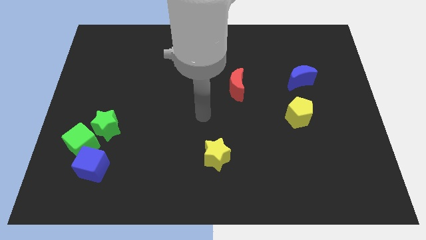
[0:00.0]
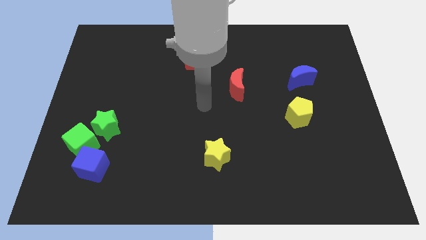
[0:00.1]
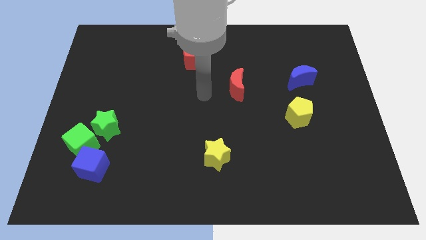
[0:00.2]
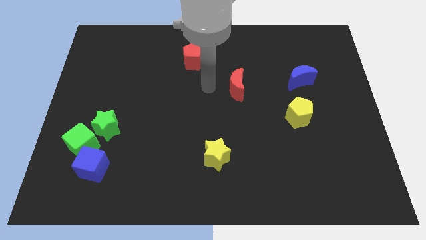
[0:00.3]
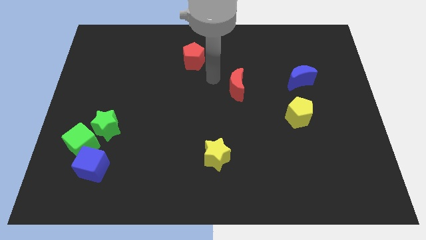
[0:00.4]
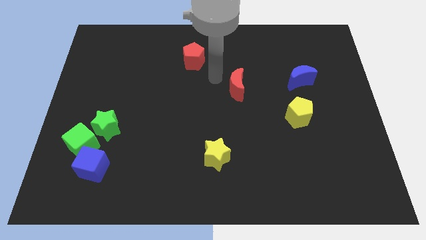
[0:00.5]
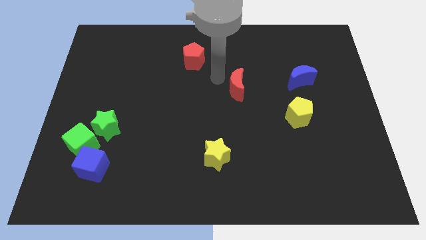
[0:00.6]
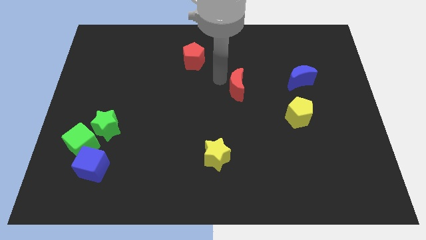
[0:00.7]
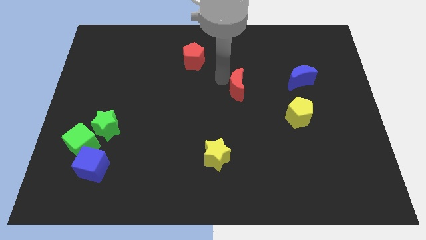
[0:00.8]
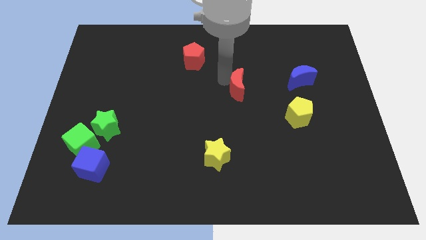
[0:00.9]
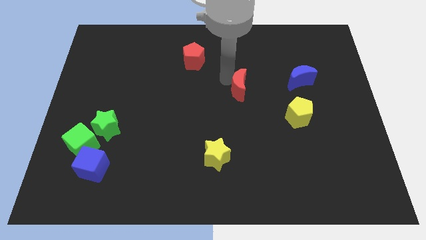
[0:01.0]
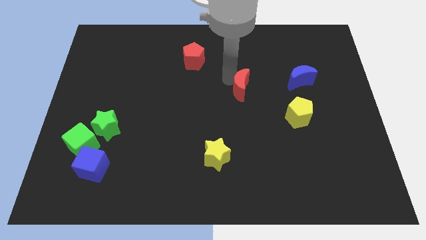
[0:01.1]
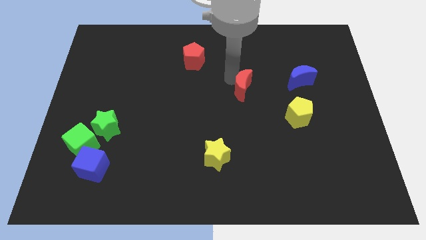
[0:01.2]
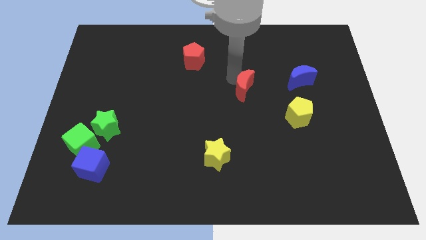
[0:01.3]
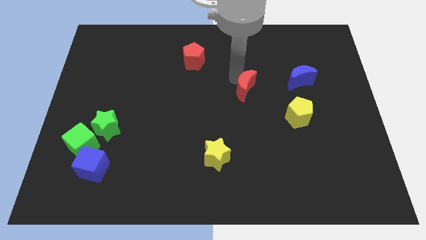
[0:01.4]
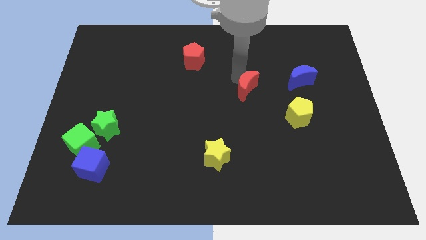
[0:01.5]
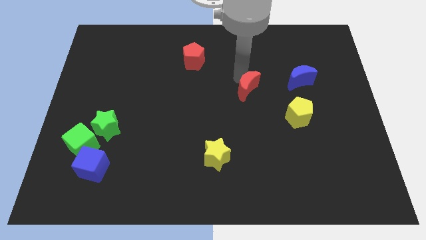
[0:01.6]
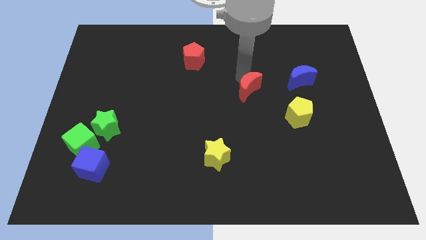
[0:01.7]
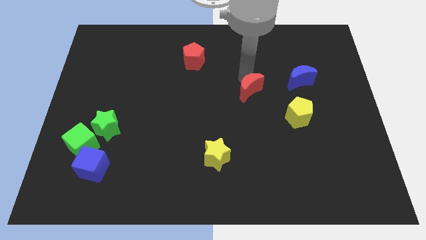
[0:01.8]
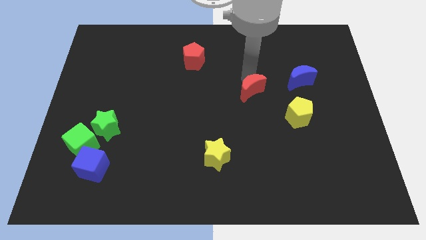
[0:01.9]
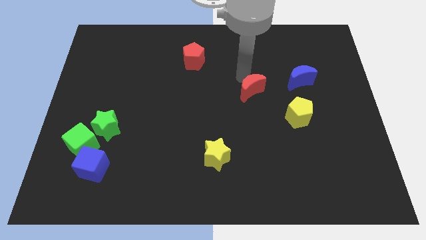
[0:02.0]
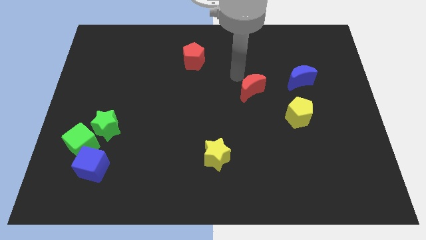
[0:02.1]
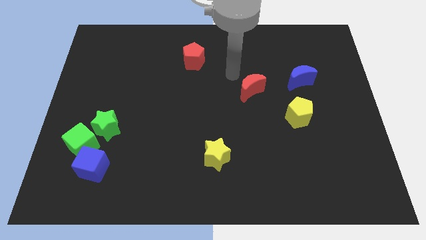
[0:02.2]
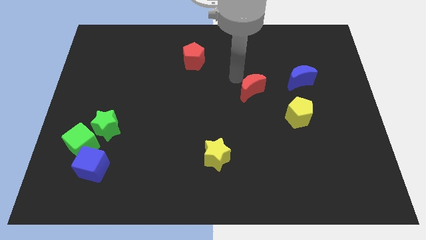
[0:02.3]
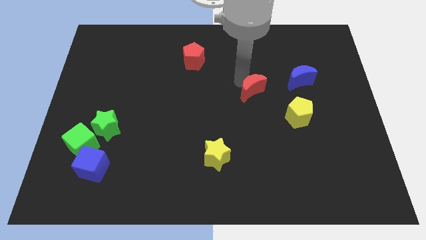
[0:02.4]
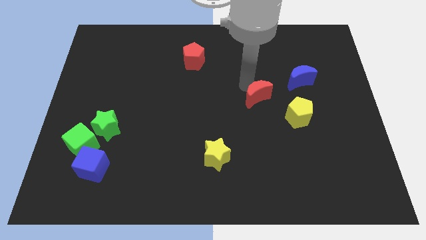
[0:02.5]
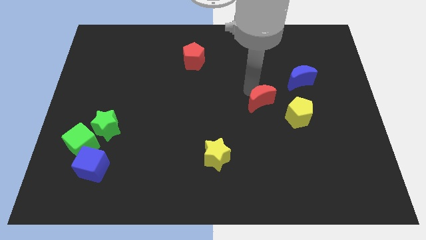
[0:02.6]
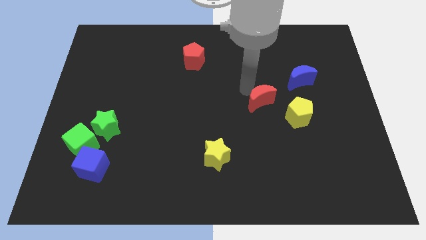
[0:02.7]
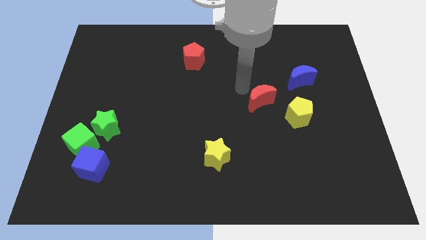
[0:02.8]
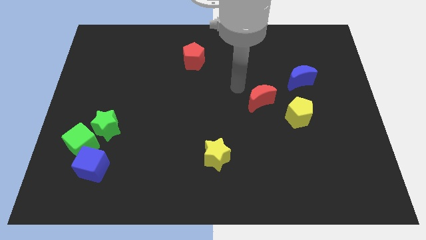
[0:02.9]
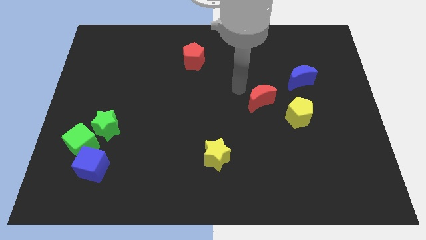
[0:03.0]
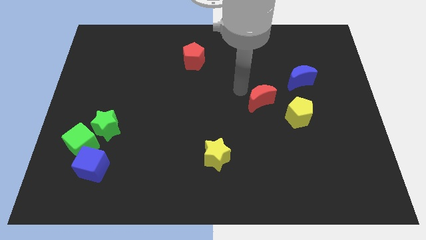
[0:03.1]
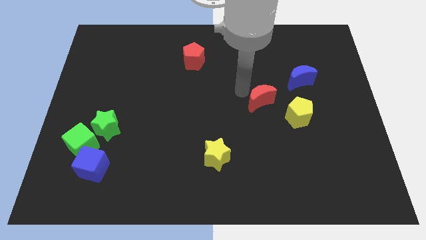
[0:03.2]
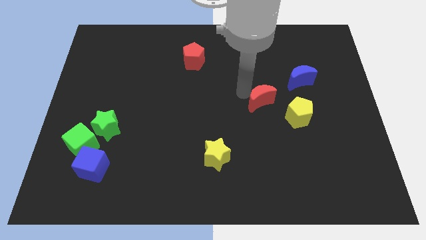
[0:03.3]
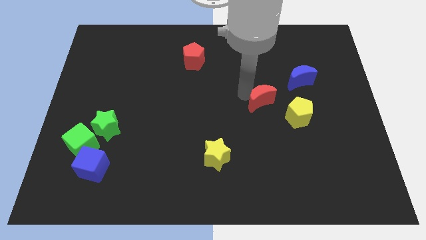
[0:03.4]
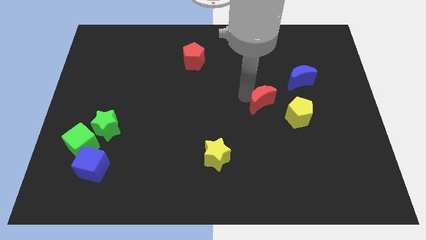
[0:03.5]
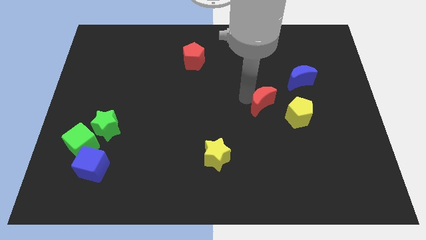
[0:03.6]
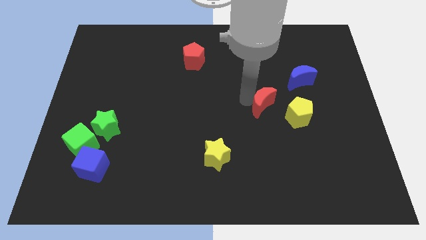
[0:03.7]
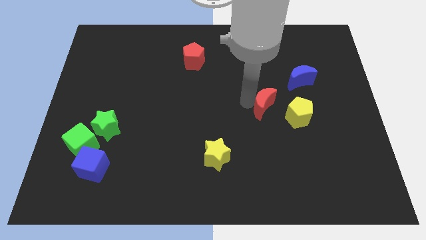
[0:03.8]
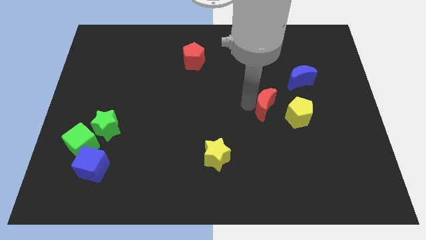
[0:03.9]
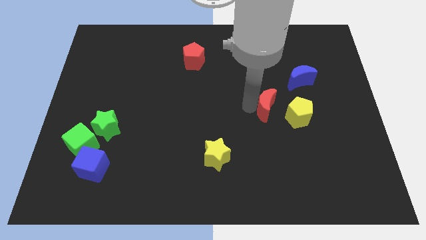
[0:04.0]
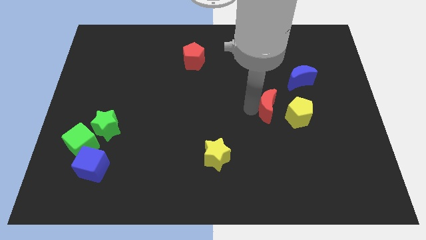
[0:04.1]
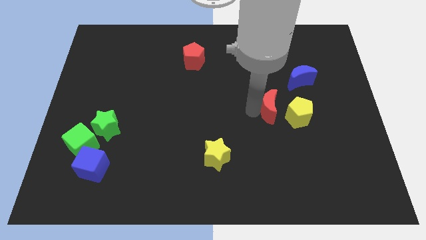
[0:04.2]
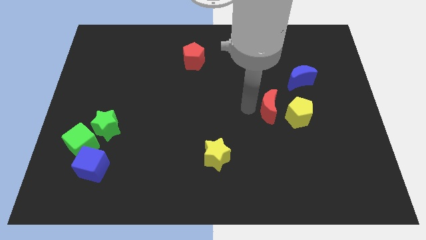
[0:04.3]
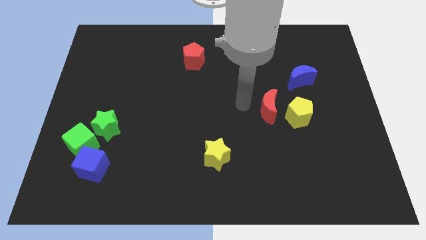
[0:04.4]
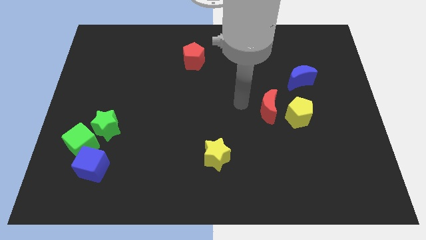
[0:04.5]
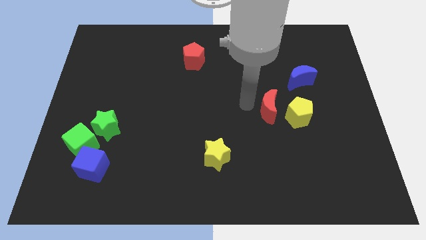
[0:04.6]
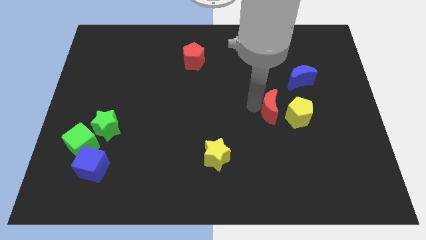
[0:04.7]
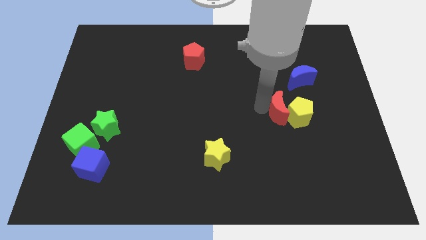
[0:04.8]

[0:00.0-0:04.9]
move the red moon to the yellow pentagon

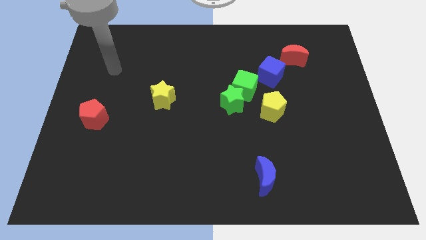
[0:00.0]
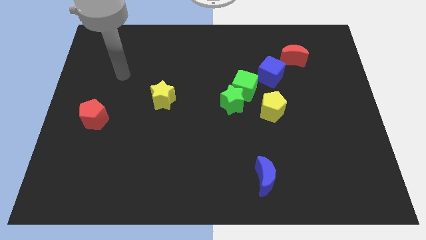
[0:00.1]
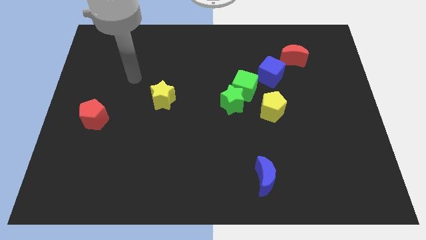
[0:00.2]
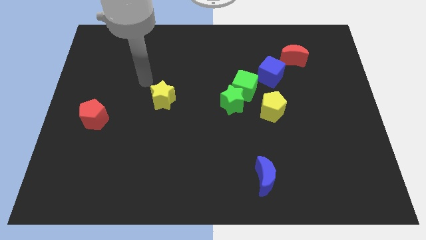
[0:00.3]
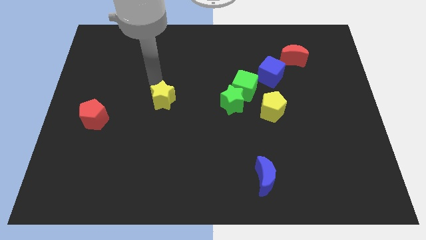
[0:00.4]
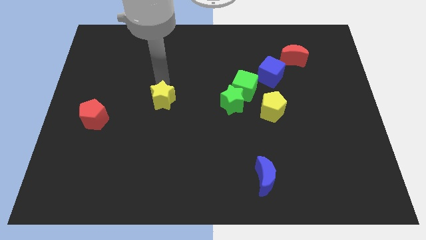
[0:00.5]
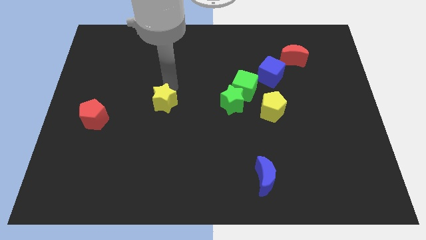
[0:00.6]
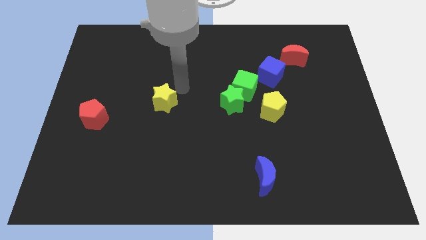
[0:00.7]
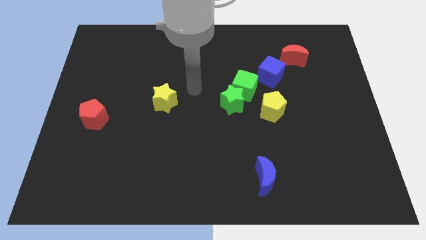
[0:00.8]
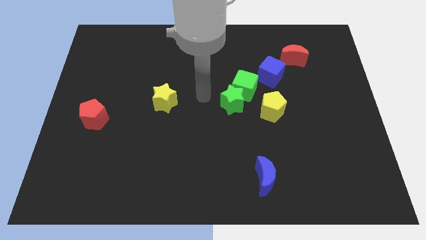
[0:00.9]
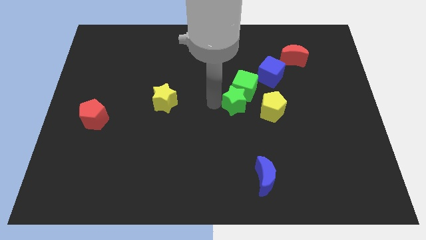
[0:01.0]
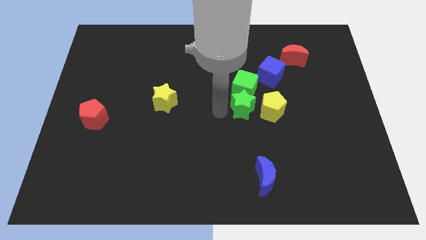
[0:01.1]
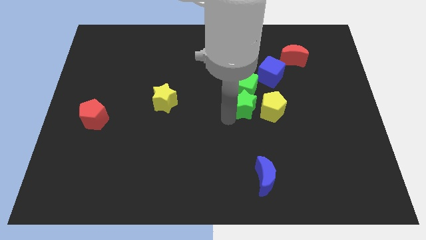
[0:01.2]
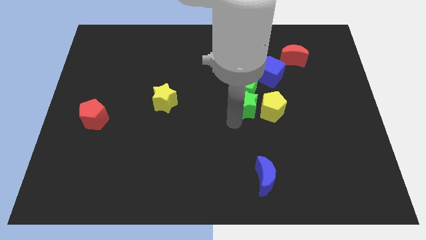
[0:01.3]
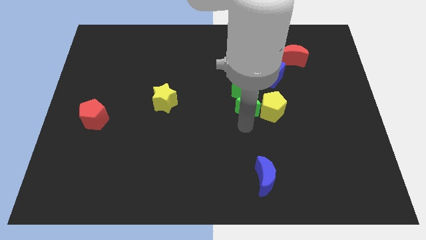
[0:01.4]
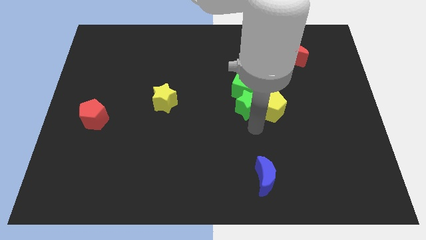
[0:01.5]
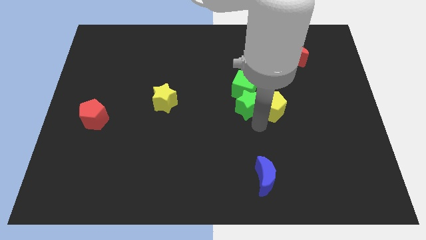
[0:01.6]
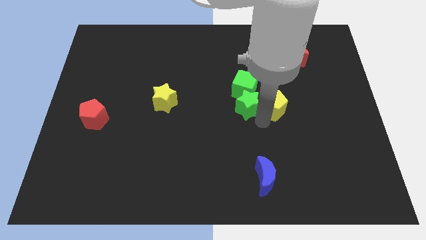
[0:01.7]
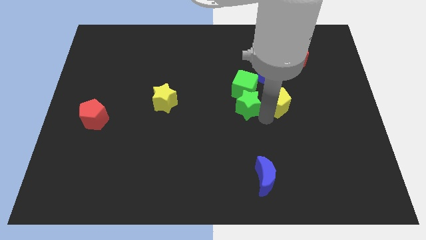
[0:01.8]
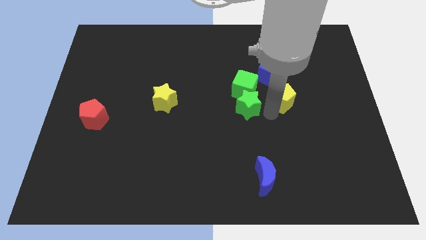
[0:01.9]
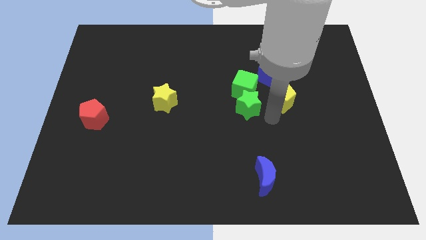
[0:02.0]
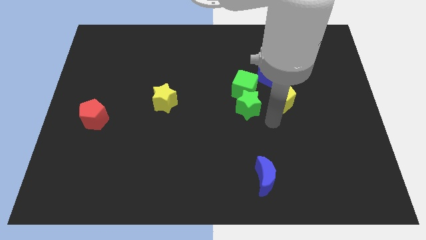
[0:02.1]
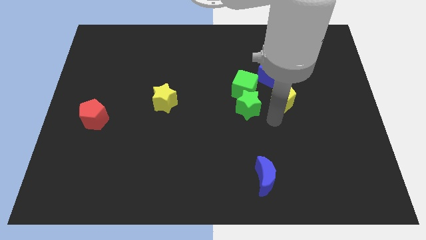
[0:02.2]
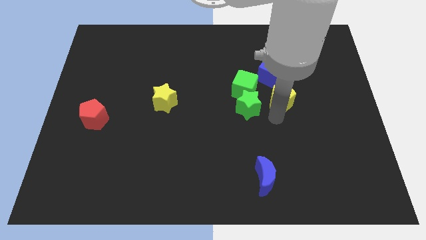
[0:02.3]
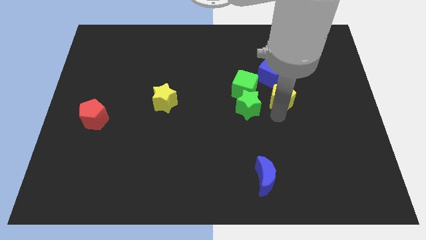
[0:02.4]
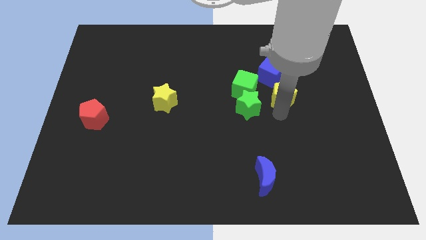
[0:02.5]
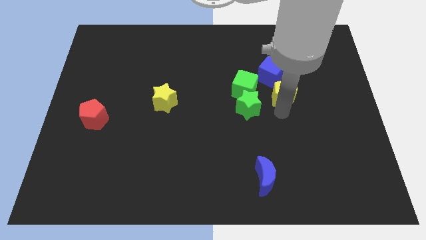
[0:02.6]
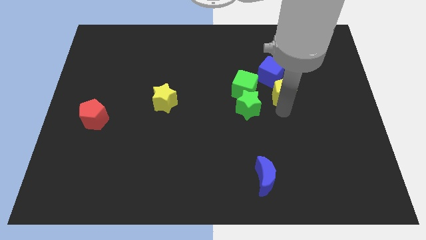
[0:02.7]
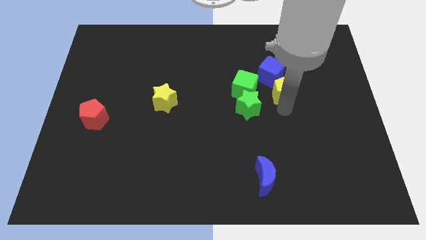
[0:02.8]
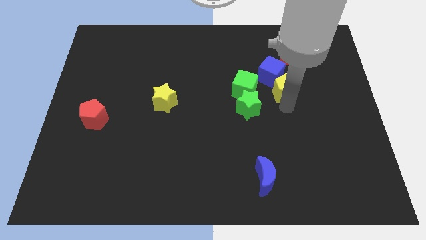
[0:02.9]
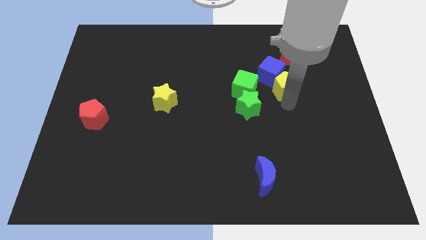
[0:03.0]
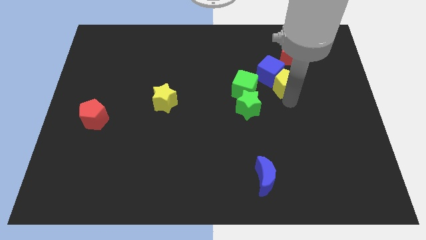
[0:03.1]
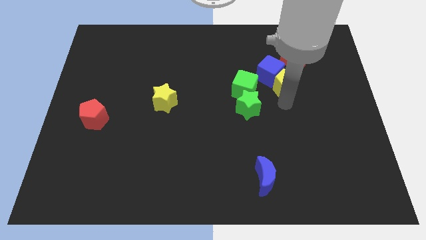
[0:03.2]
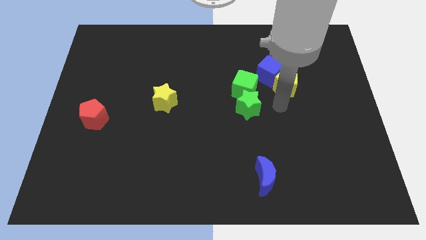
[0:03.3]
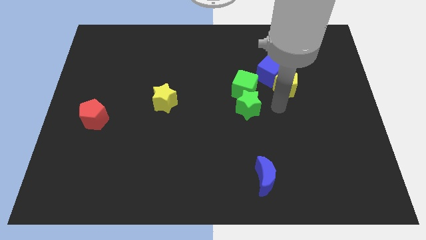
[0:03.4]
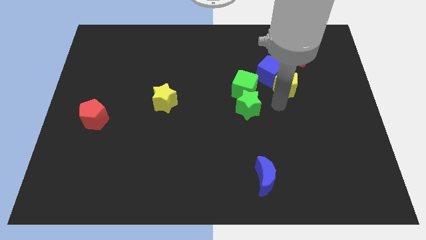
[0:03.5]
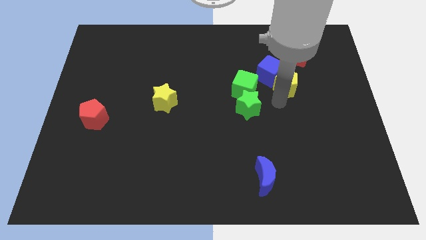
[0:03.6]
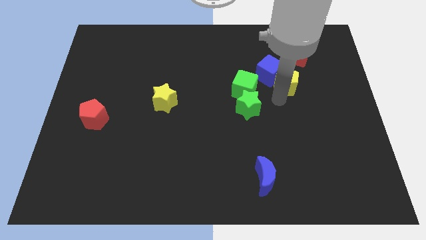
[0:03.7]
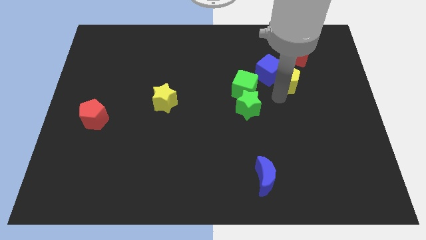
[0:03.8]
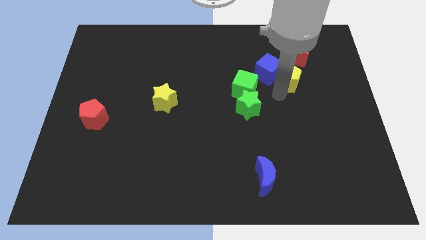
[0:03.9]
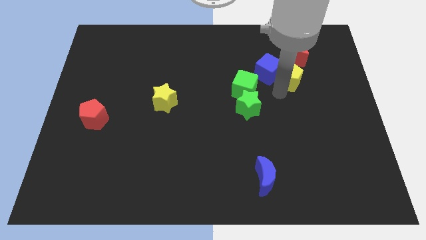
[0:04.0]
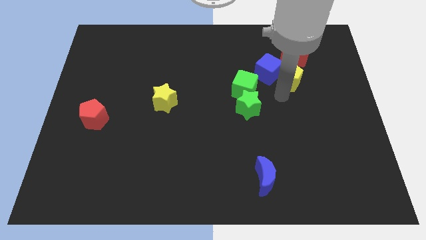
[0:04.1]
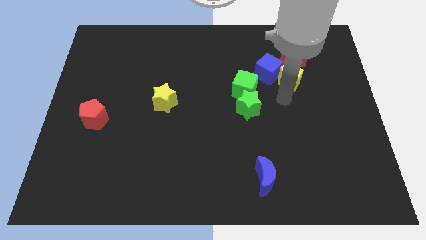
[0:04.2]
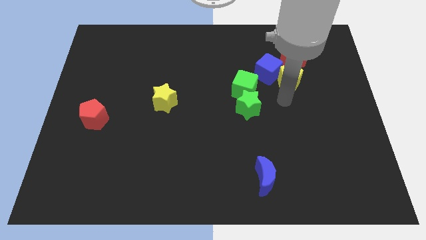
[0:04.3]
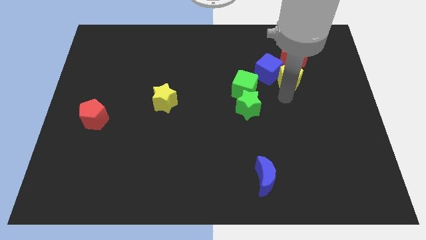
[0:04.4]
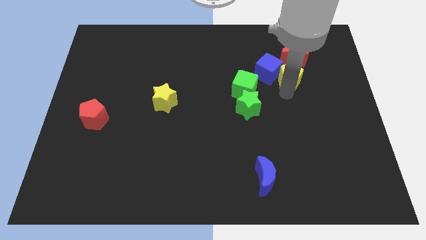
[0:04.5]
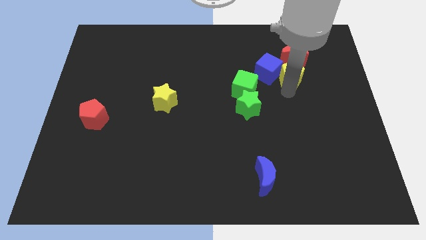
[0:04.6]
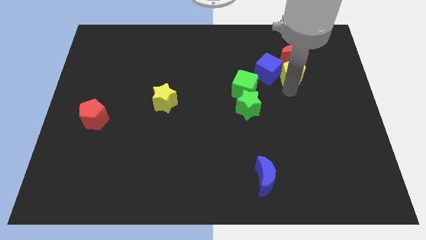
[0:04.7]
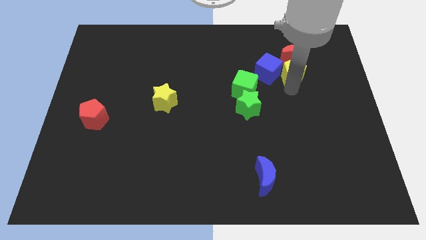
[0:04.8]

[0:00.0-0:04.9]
slide the yellow pentagon towards the red moon
